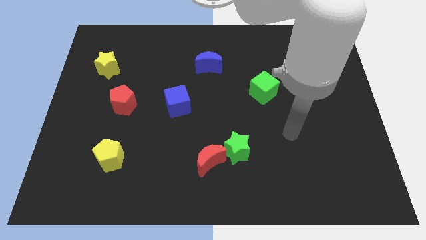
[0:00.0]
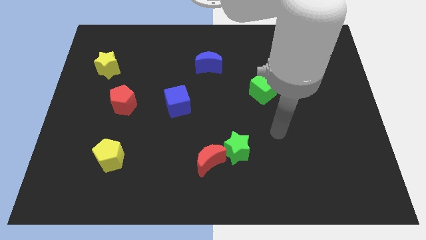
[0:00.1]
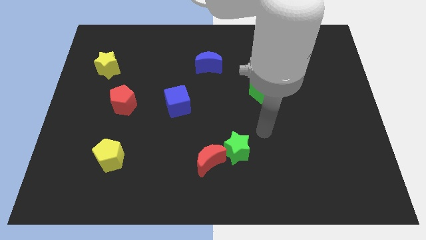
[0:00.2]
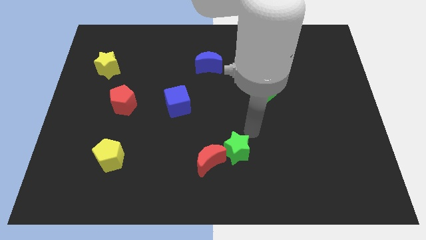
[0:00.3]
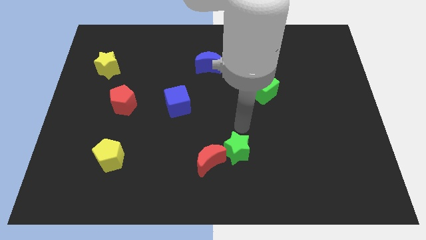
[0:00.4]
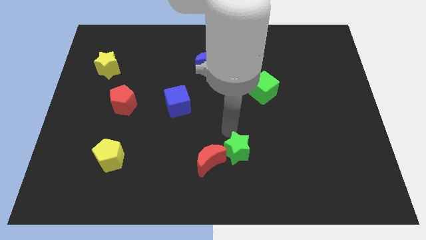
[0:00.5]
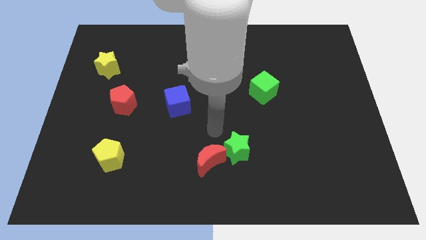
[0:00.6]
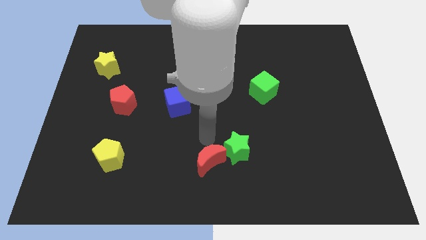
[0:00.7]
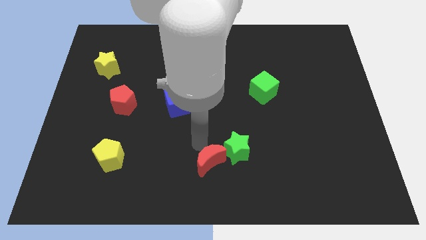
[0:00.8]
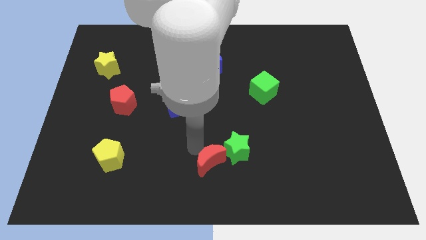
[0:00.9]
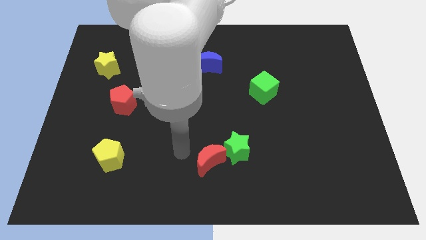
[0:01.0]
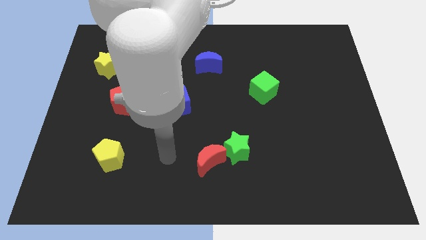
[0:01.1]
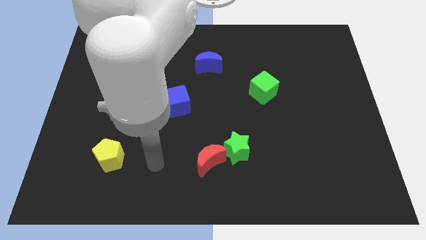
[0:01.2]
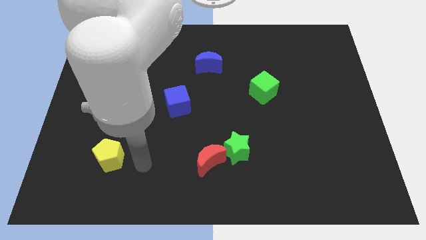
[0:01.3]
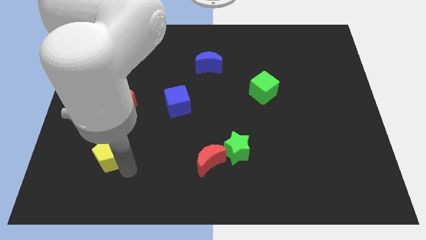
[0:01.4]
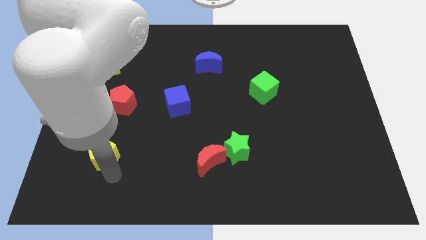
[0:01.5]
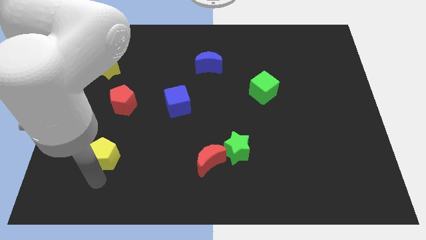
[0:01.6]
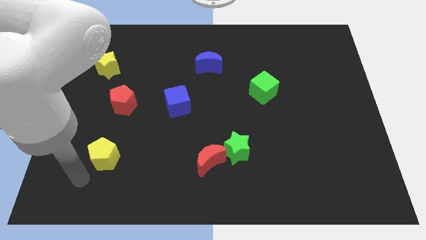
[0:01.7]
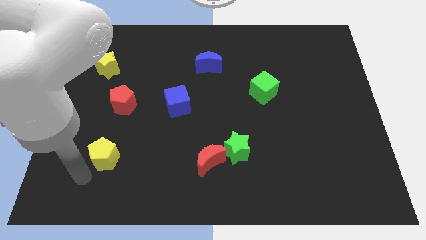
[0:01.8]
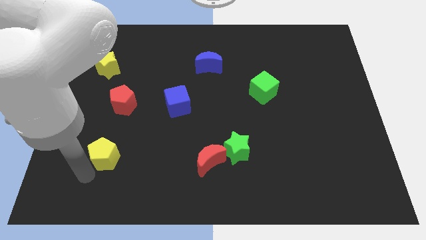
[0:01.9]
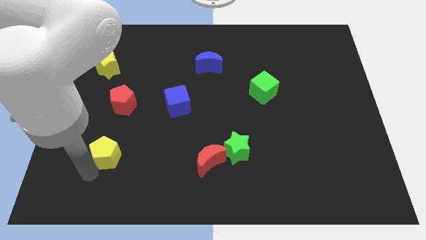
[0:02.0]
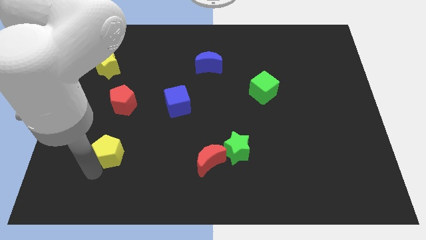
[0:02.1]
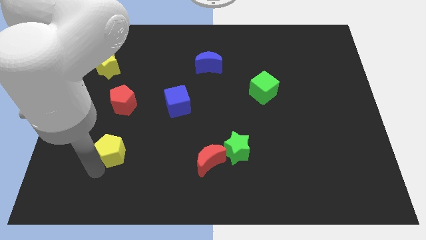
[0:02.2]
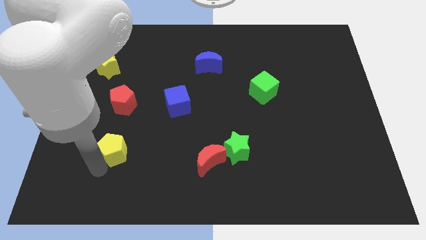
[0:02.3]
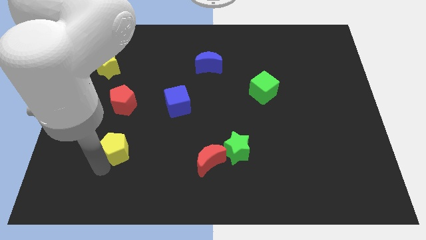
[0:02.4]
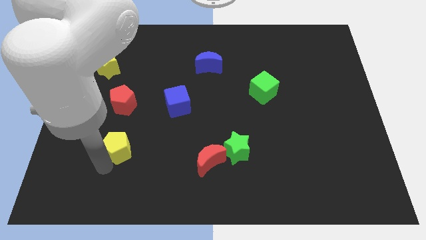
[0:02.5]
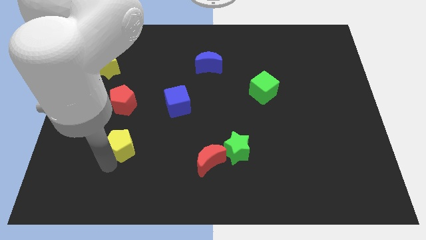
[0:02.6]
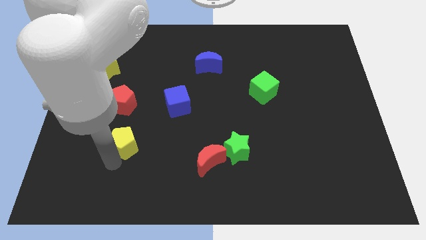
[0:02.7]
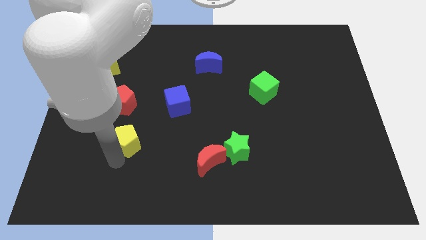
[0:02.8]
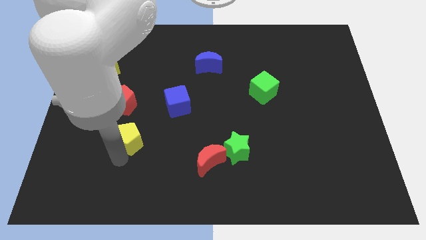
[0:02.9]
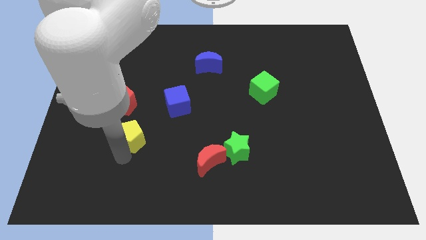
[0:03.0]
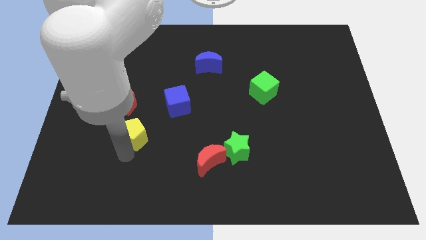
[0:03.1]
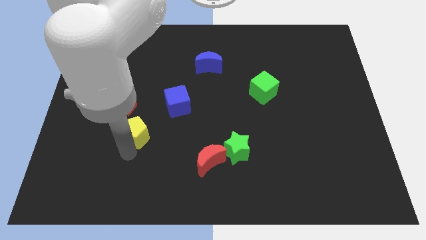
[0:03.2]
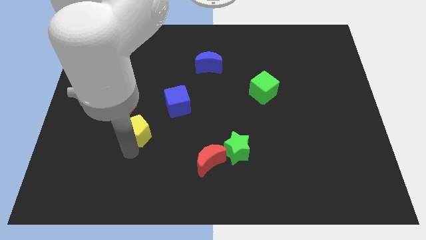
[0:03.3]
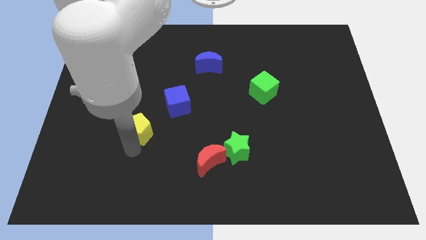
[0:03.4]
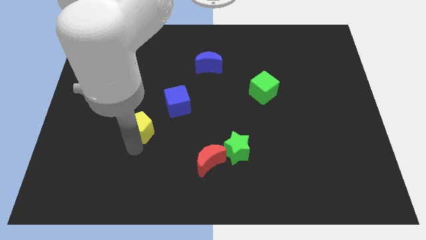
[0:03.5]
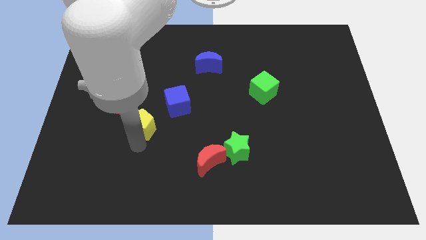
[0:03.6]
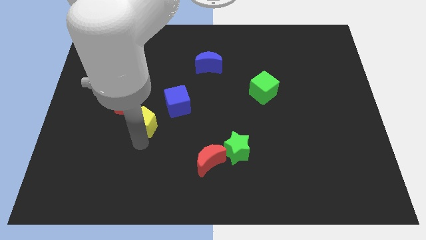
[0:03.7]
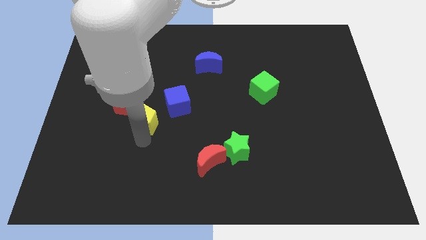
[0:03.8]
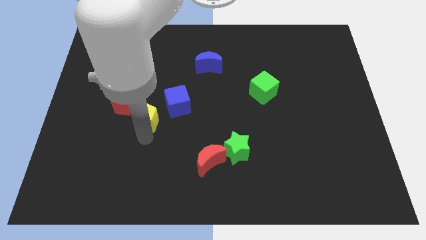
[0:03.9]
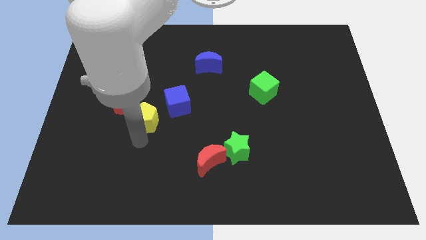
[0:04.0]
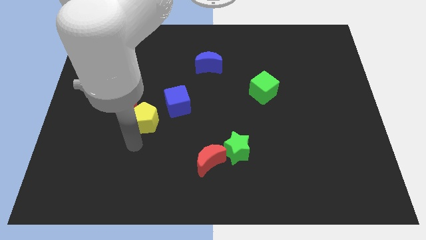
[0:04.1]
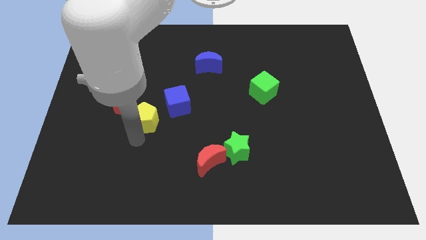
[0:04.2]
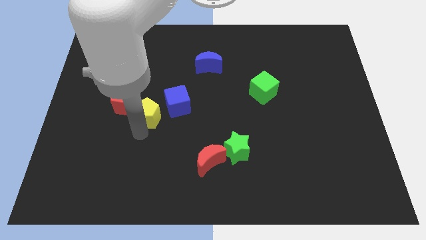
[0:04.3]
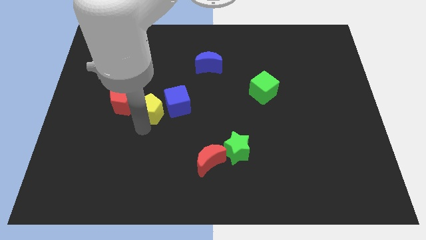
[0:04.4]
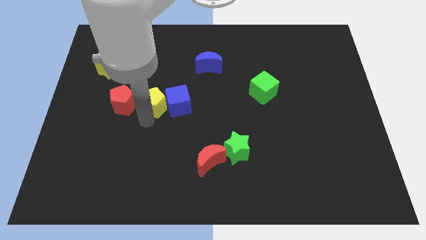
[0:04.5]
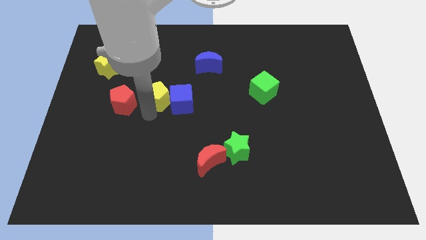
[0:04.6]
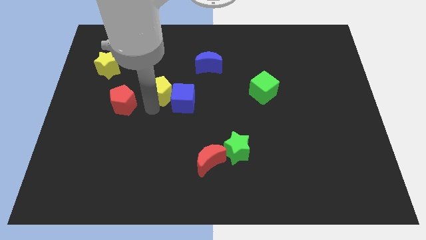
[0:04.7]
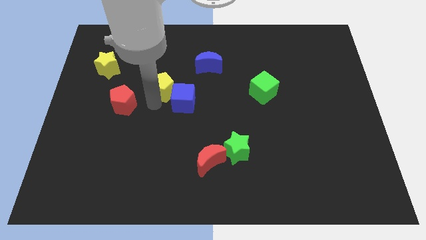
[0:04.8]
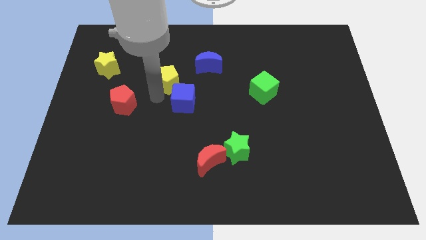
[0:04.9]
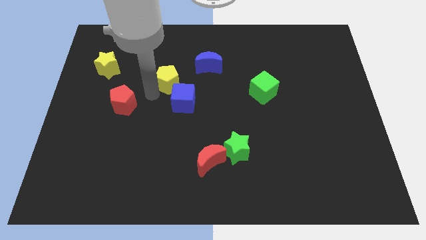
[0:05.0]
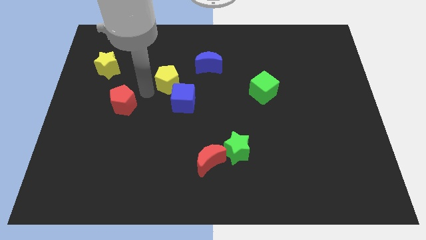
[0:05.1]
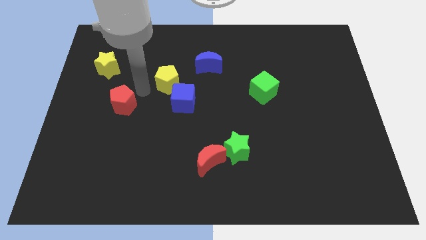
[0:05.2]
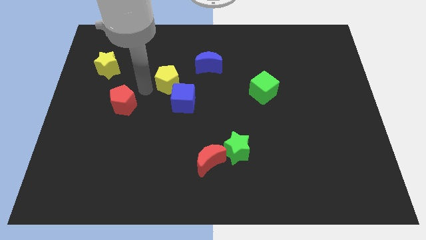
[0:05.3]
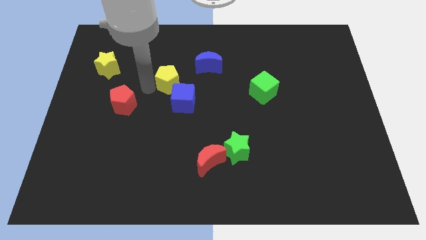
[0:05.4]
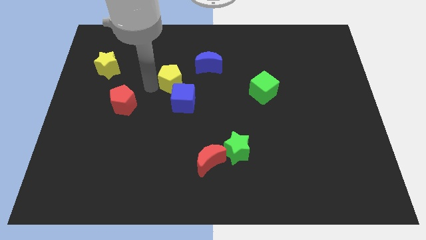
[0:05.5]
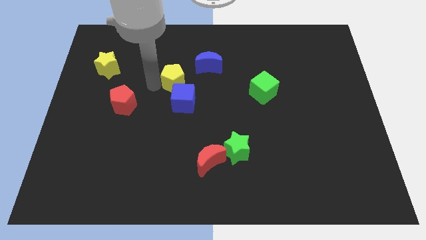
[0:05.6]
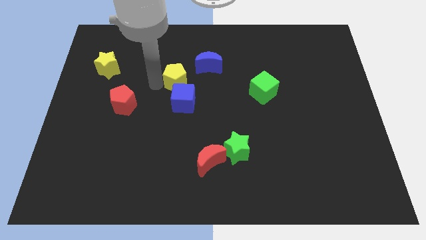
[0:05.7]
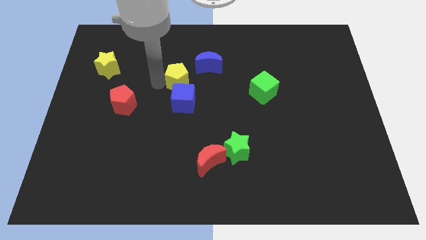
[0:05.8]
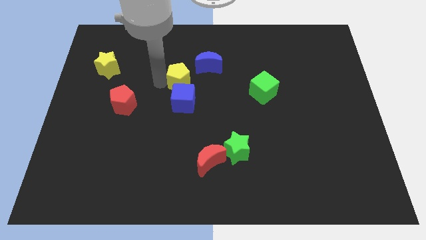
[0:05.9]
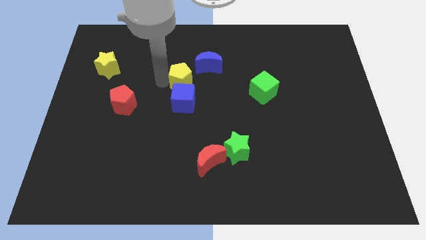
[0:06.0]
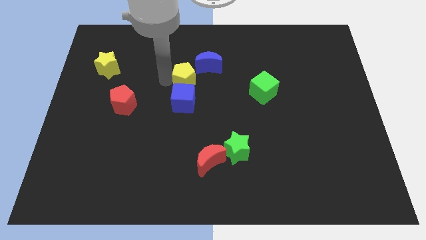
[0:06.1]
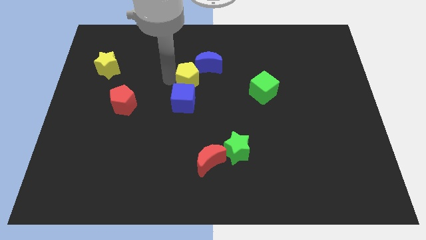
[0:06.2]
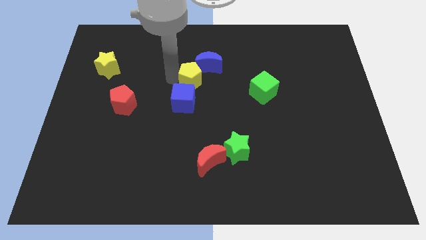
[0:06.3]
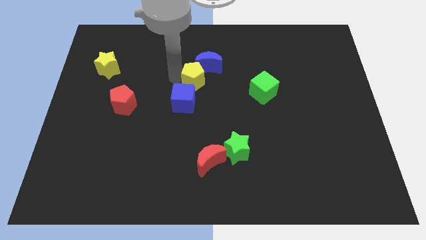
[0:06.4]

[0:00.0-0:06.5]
put the yellow pentagon to the blue moon

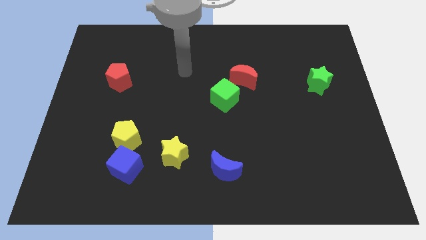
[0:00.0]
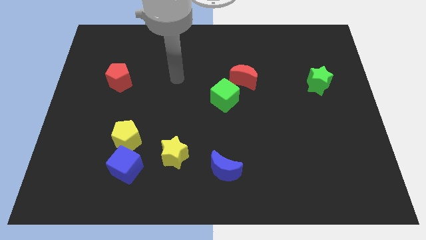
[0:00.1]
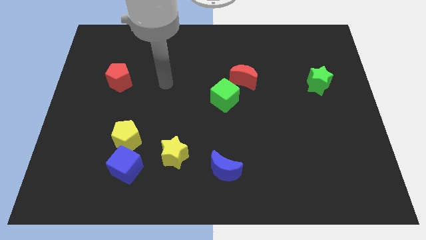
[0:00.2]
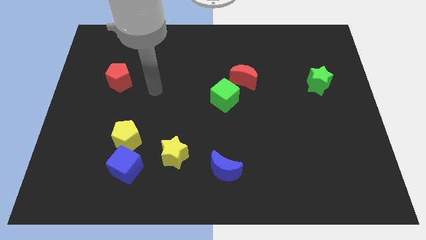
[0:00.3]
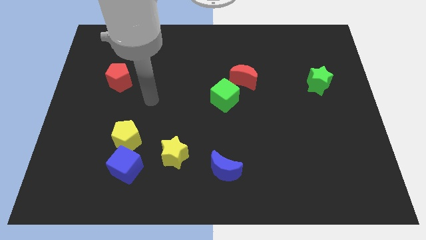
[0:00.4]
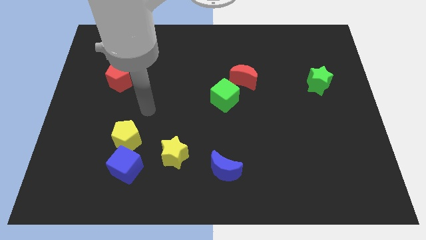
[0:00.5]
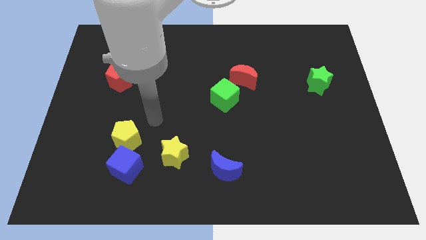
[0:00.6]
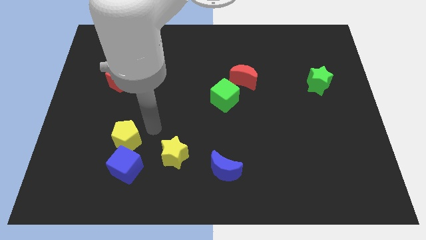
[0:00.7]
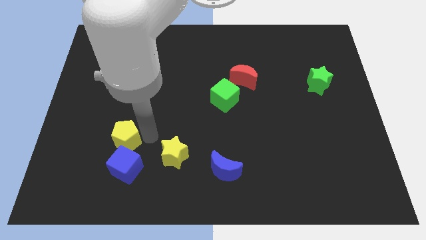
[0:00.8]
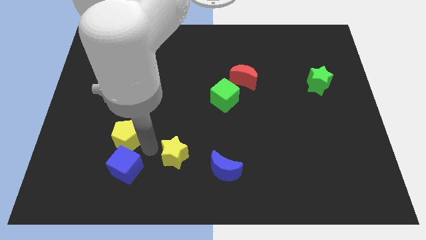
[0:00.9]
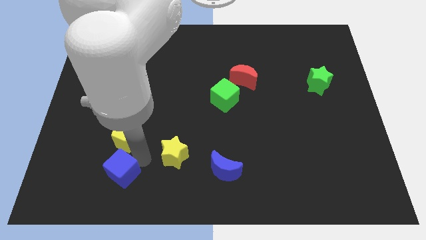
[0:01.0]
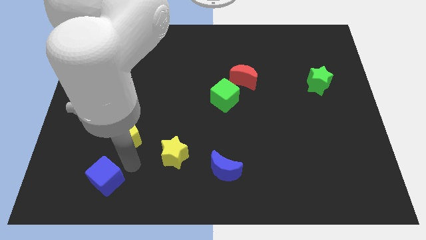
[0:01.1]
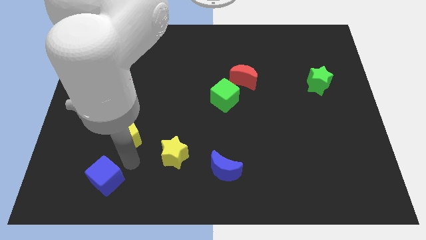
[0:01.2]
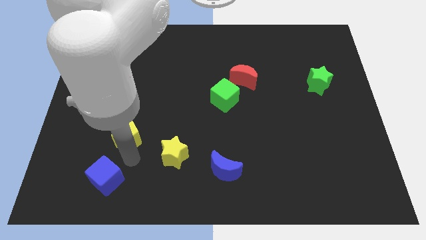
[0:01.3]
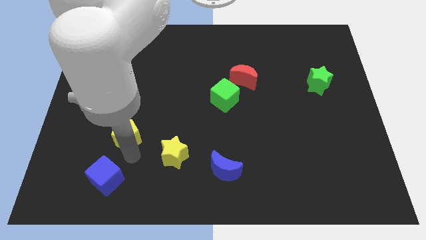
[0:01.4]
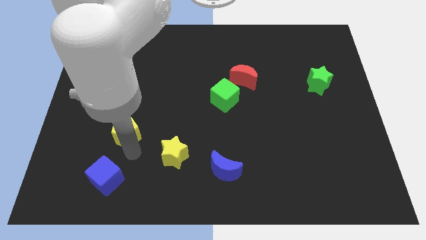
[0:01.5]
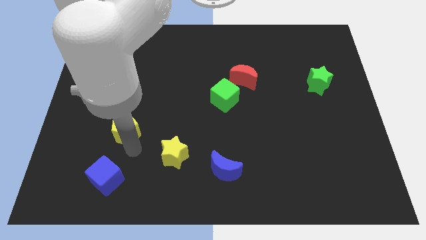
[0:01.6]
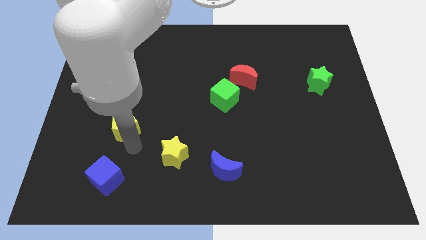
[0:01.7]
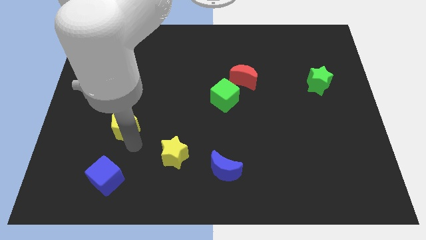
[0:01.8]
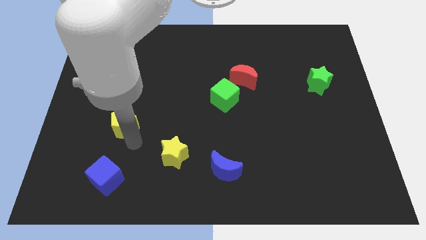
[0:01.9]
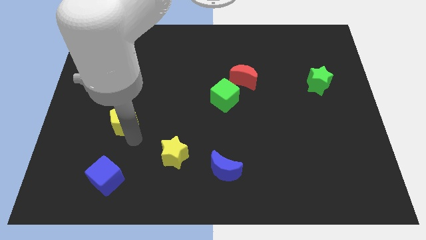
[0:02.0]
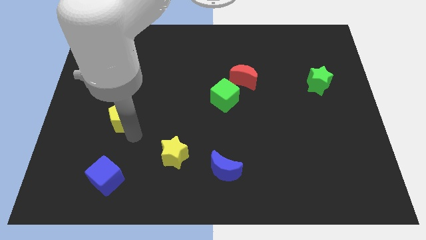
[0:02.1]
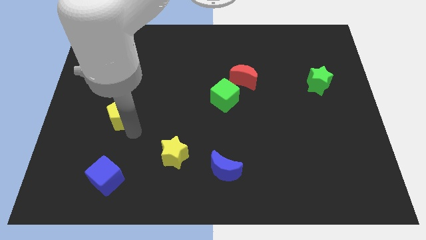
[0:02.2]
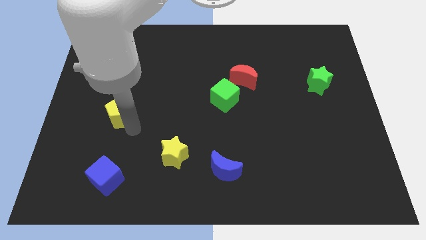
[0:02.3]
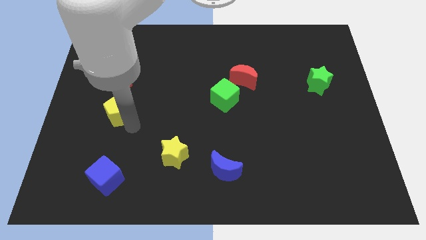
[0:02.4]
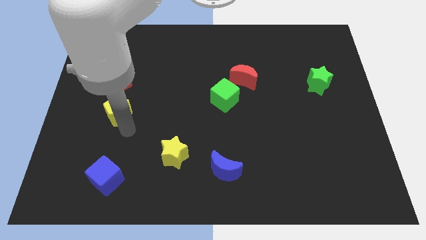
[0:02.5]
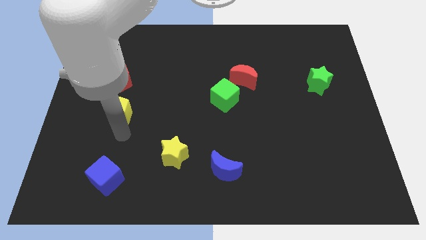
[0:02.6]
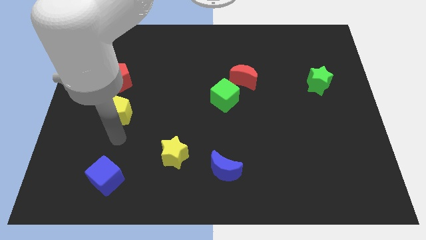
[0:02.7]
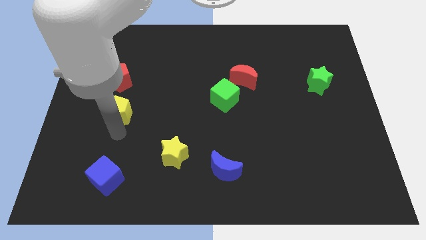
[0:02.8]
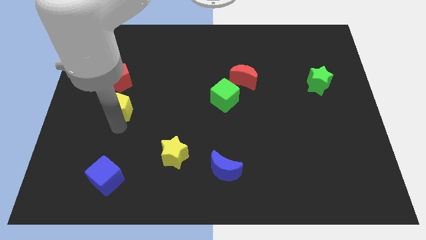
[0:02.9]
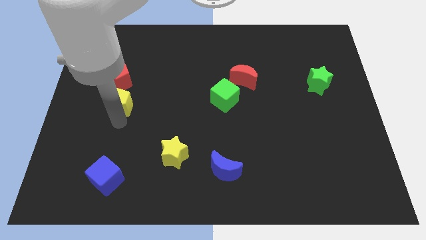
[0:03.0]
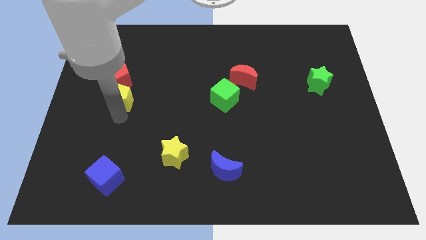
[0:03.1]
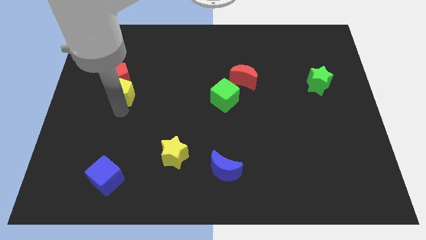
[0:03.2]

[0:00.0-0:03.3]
put the yellow pentagon next to the red pentagon
